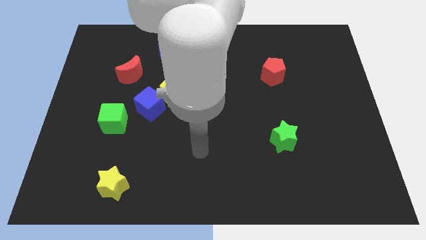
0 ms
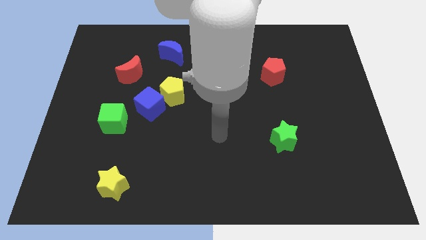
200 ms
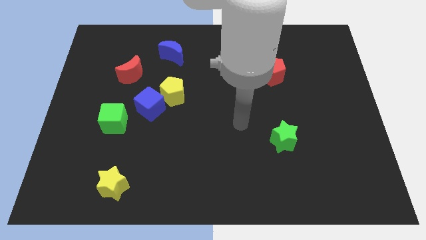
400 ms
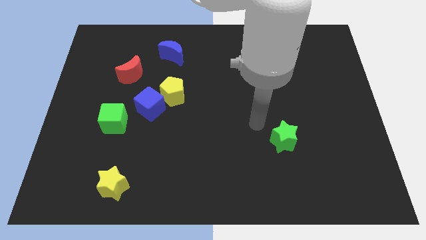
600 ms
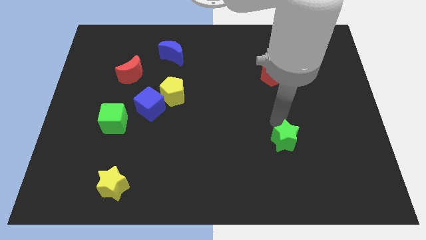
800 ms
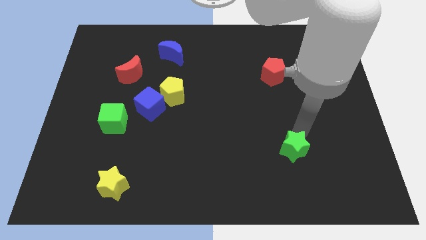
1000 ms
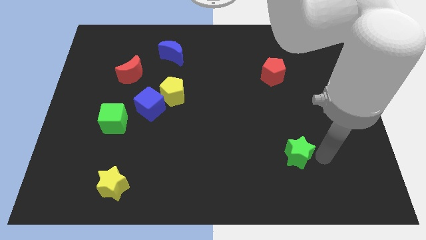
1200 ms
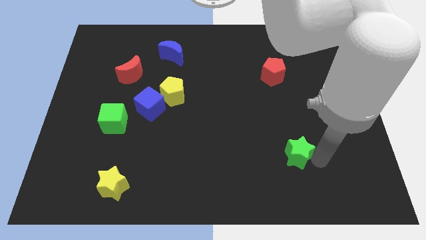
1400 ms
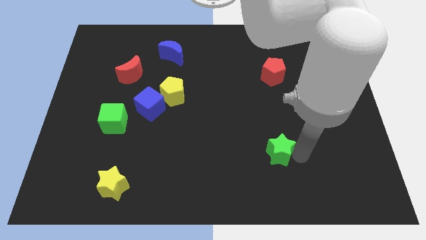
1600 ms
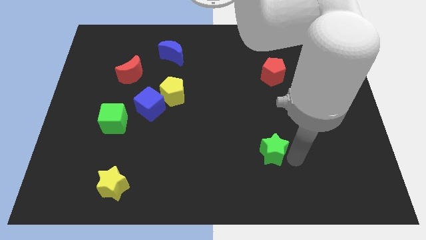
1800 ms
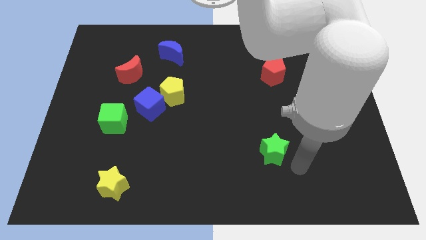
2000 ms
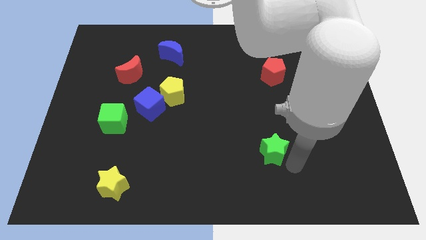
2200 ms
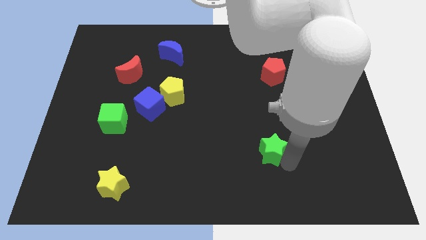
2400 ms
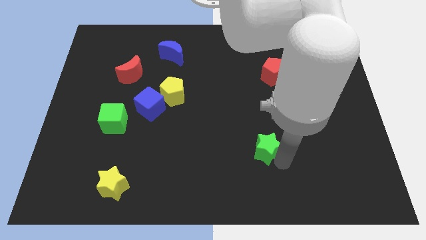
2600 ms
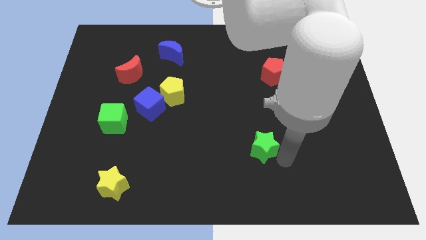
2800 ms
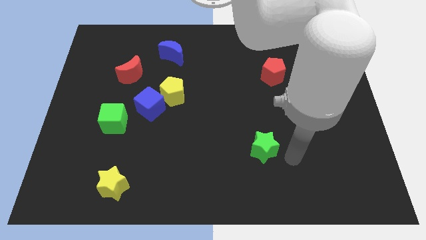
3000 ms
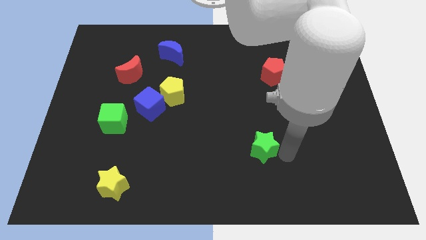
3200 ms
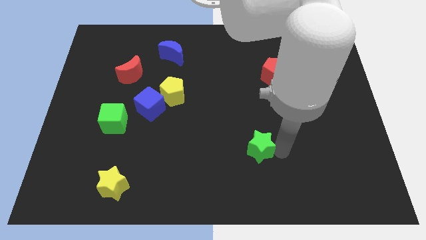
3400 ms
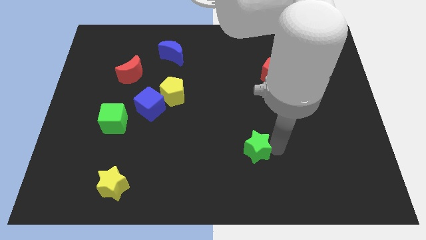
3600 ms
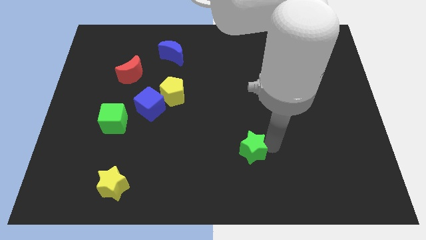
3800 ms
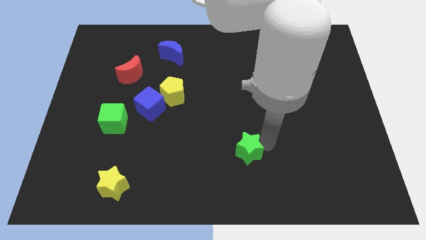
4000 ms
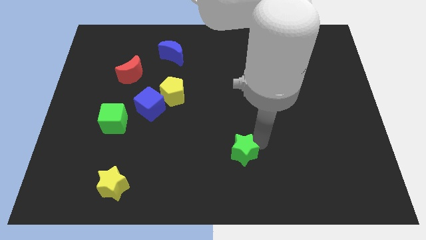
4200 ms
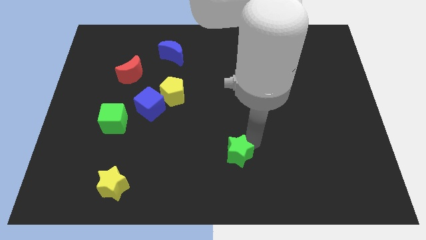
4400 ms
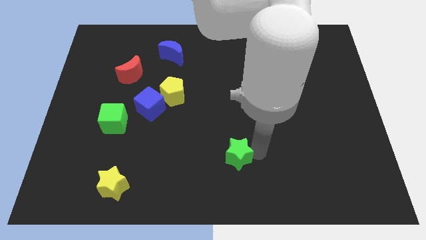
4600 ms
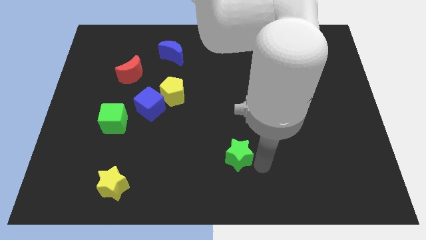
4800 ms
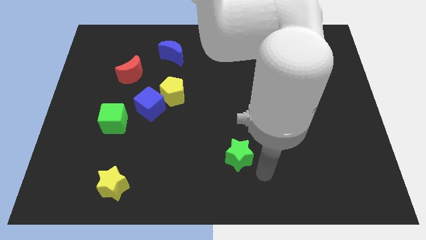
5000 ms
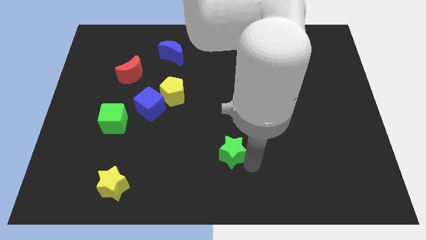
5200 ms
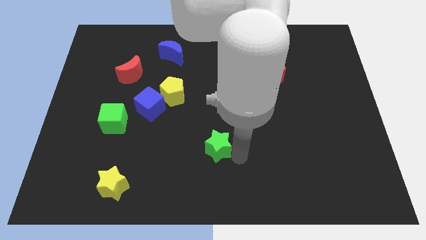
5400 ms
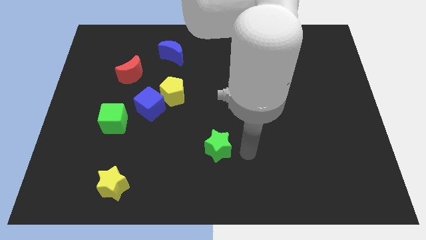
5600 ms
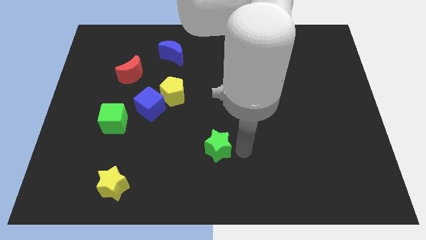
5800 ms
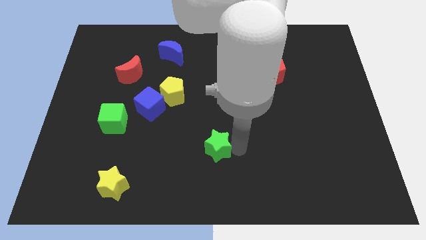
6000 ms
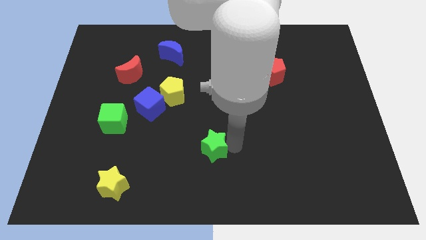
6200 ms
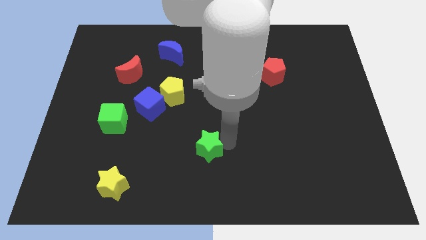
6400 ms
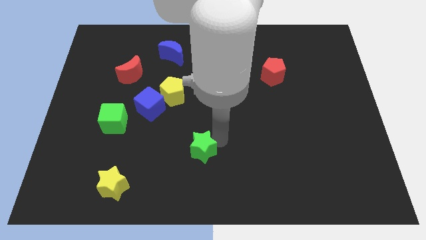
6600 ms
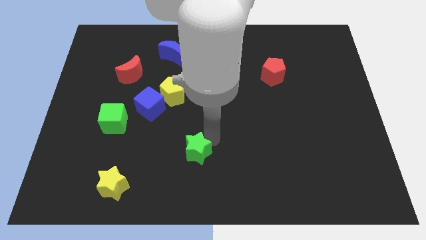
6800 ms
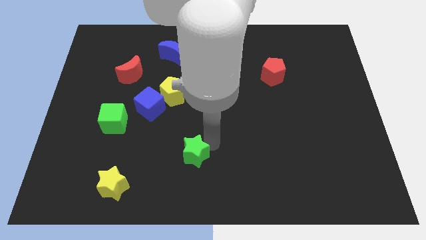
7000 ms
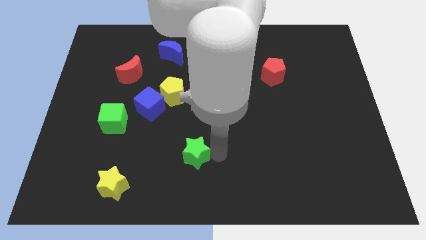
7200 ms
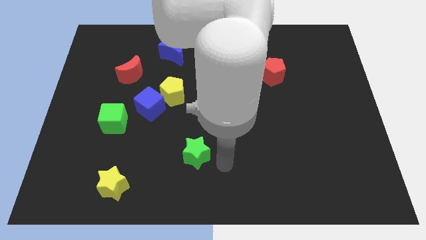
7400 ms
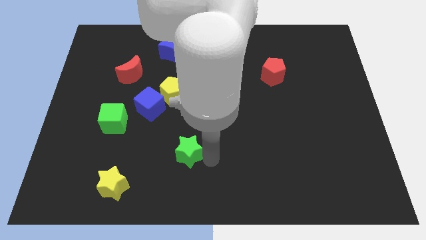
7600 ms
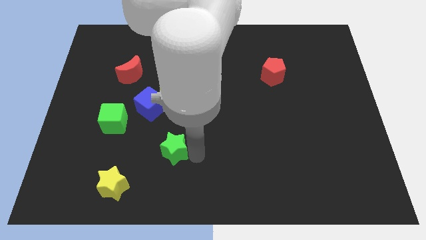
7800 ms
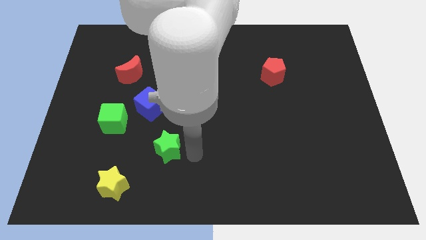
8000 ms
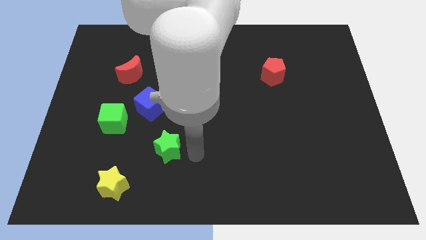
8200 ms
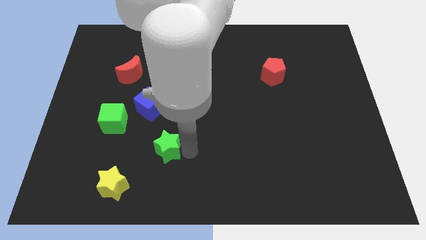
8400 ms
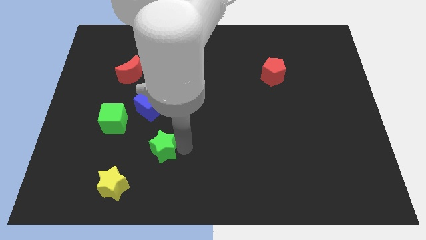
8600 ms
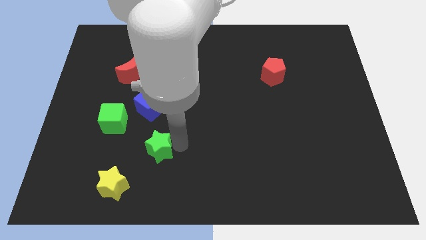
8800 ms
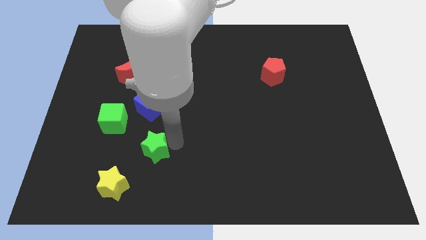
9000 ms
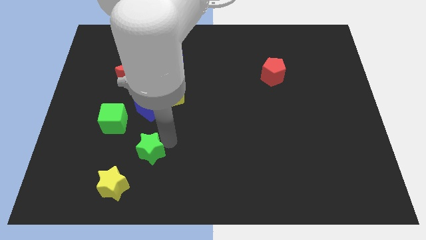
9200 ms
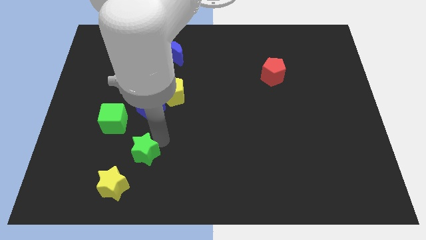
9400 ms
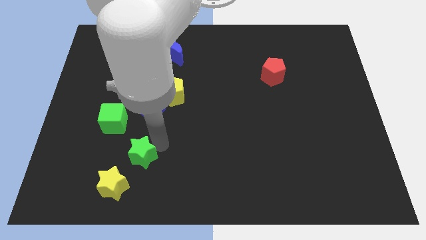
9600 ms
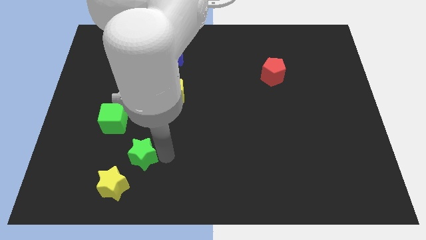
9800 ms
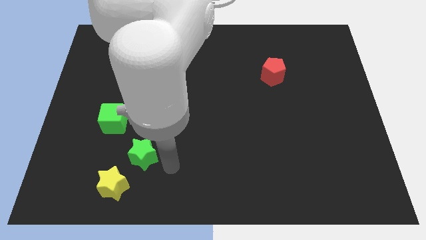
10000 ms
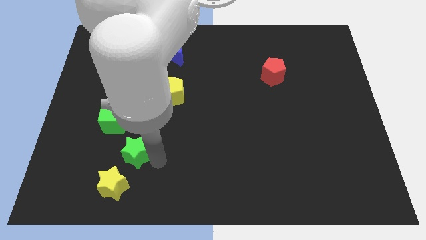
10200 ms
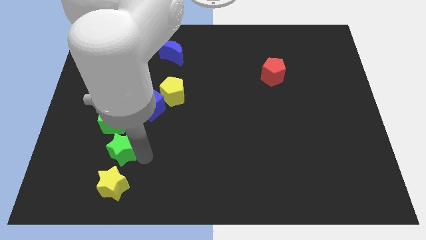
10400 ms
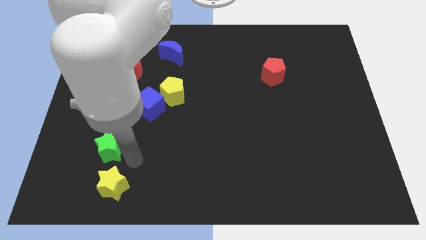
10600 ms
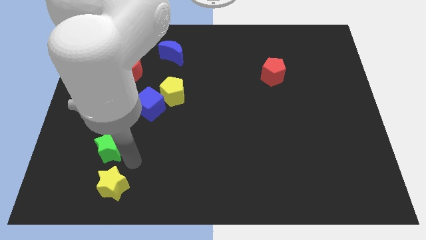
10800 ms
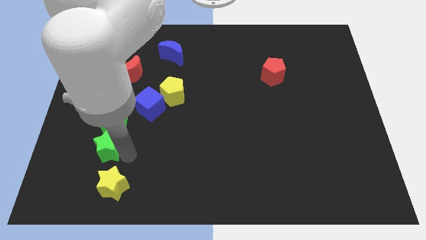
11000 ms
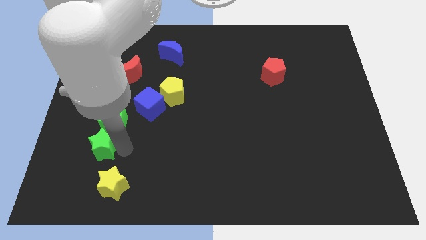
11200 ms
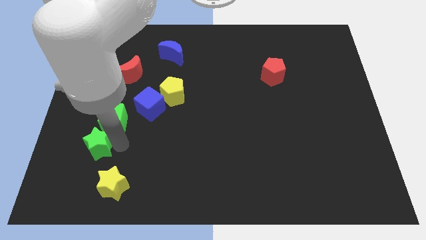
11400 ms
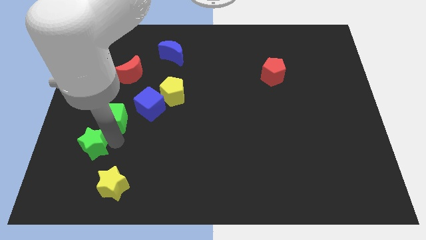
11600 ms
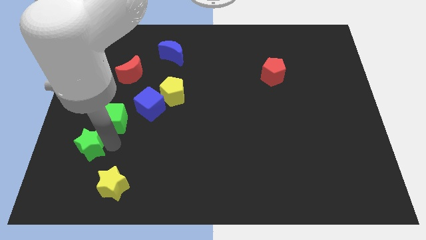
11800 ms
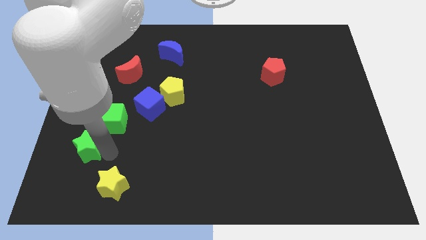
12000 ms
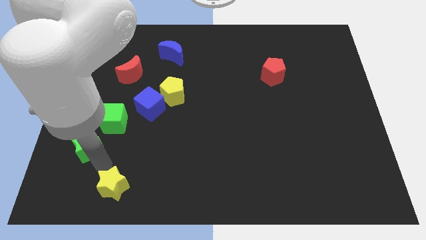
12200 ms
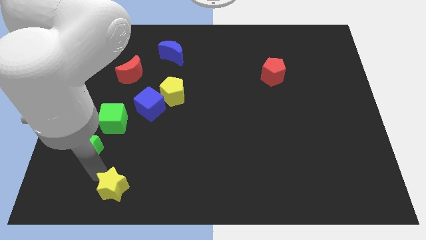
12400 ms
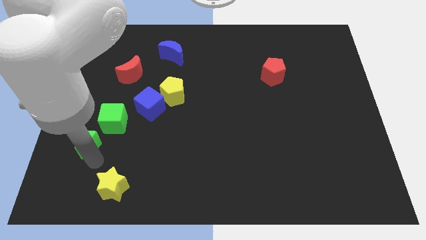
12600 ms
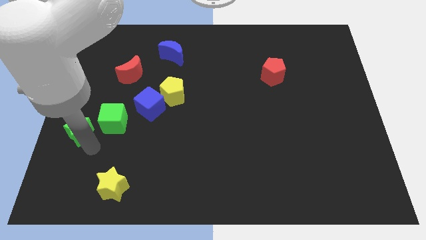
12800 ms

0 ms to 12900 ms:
put the green star to the left side of the board
